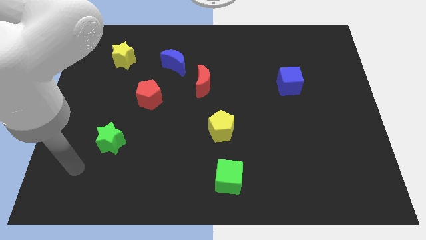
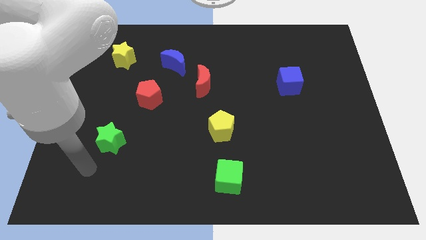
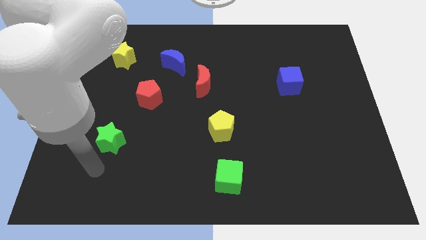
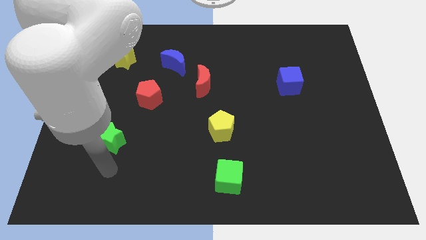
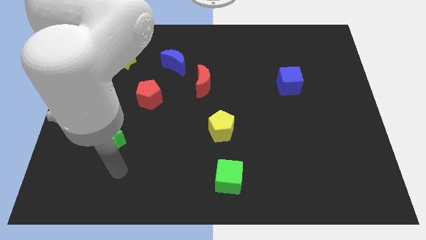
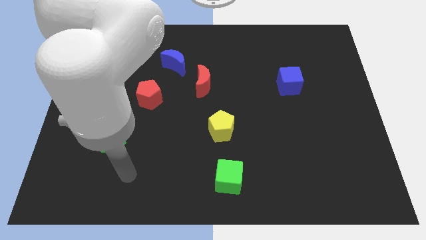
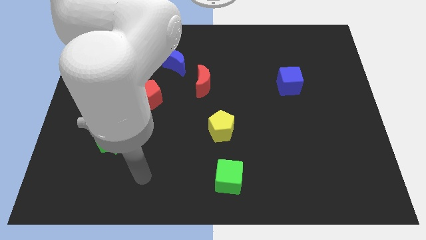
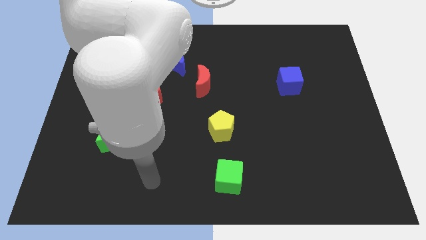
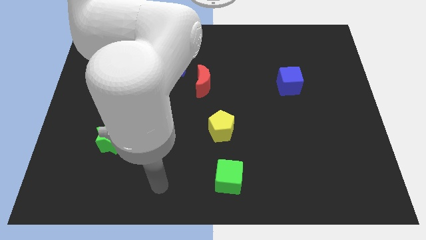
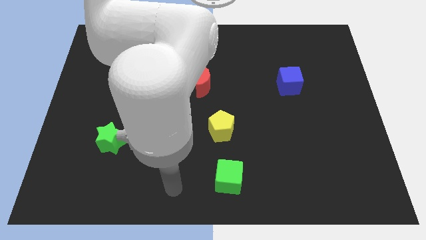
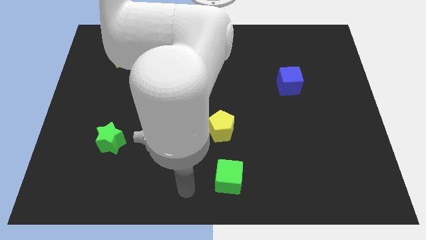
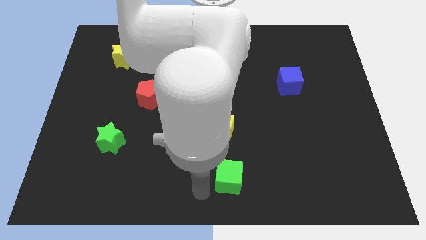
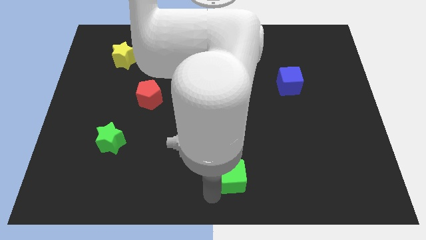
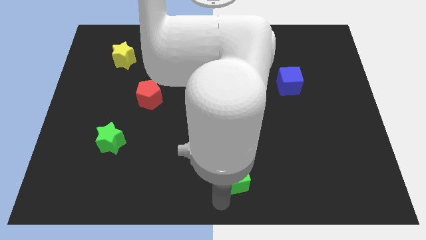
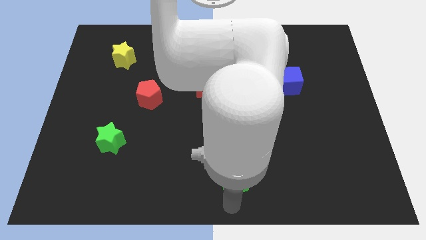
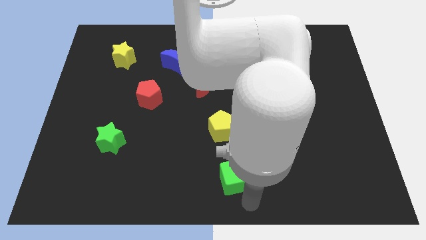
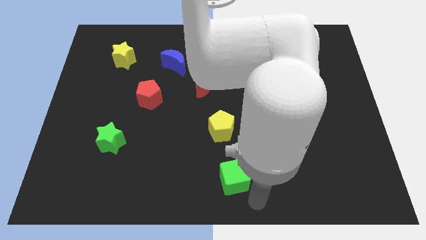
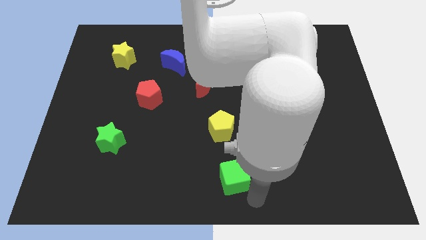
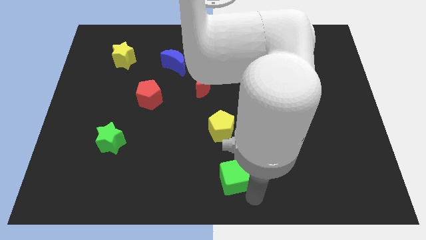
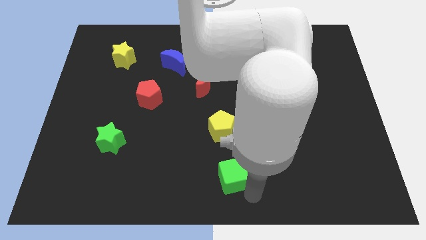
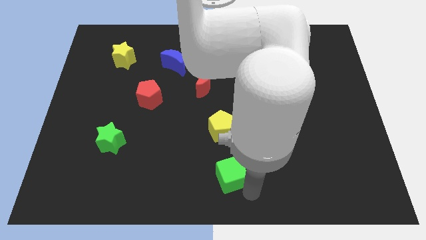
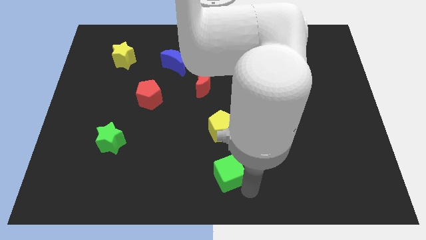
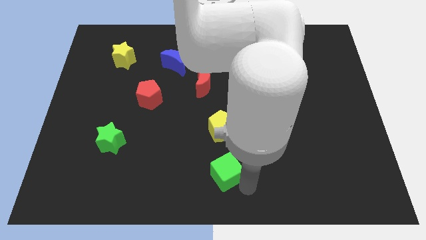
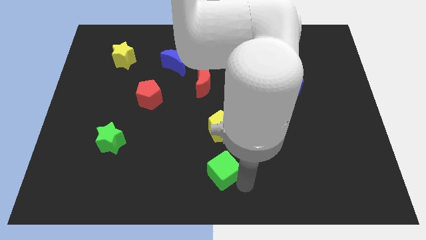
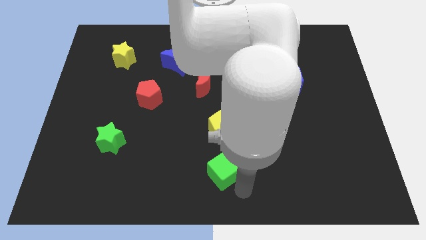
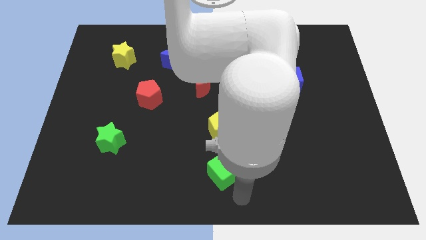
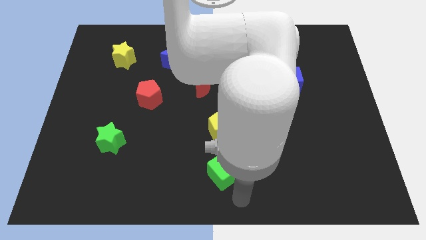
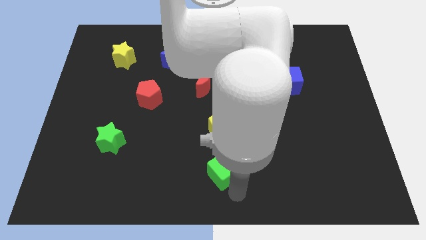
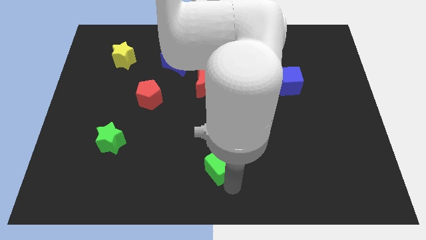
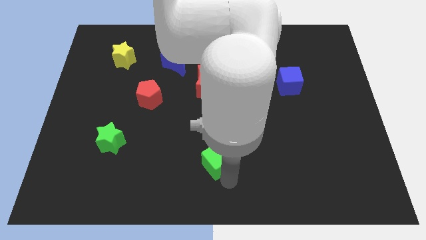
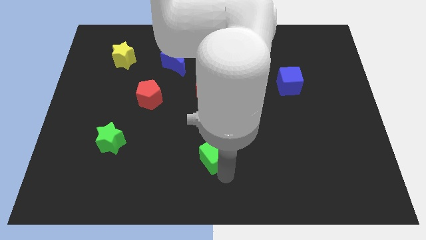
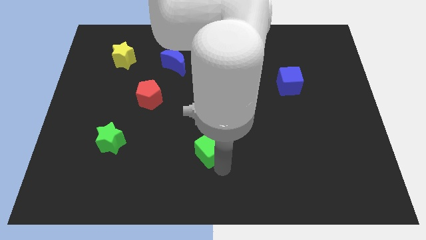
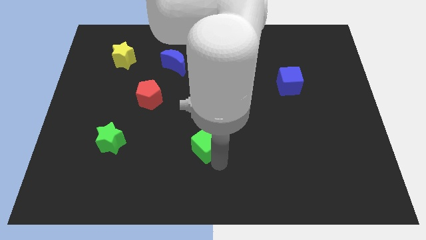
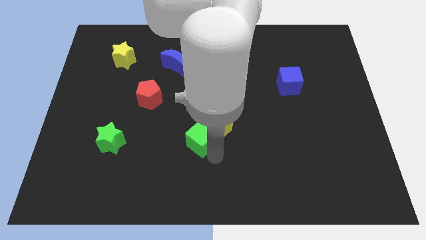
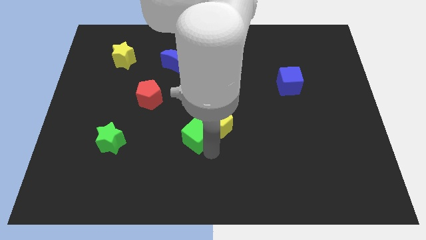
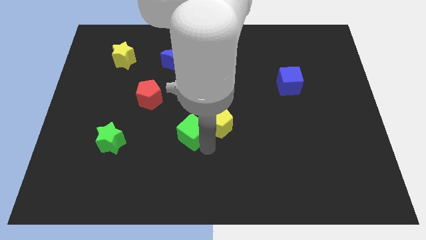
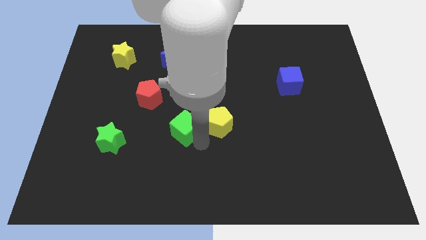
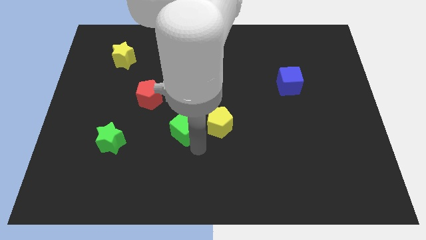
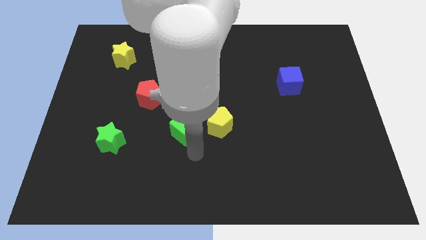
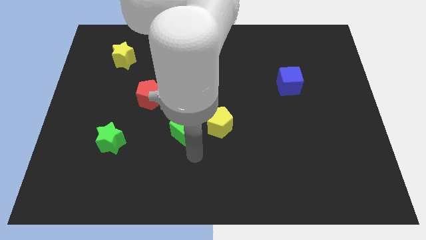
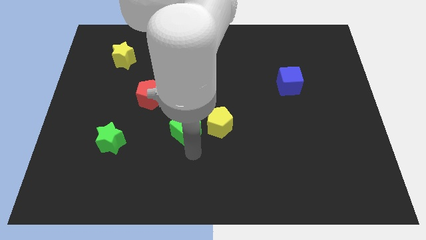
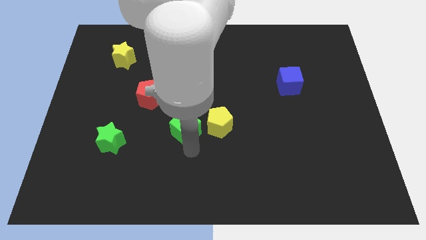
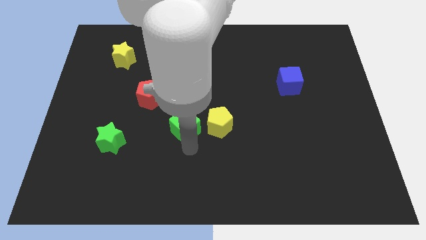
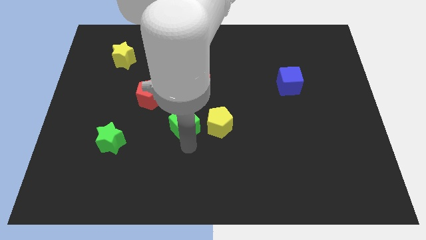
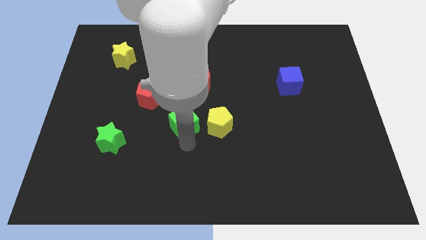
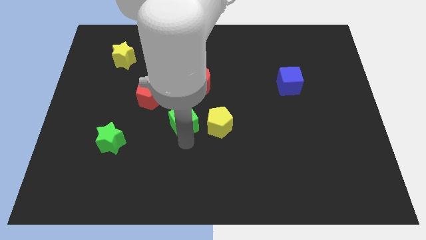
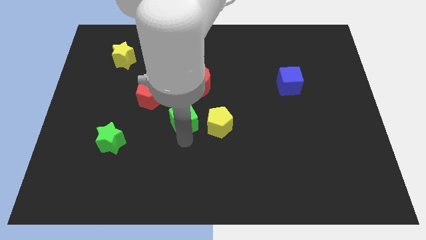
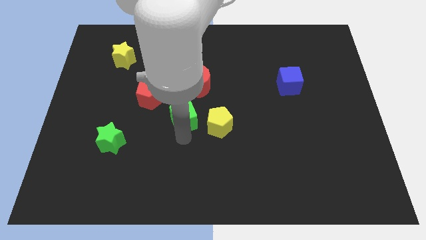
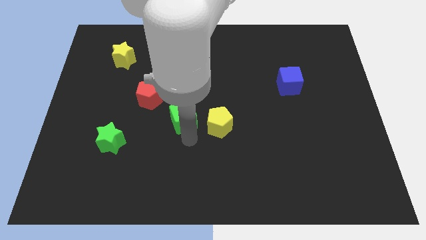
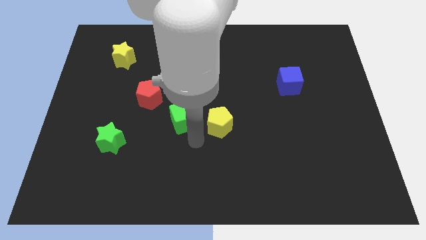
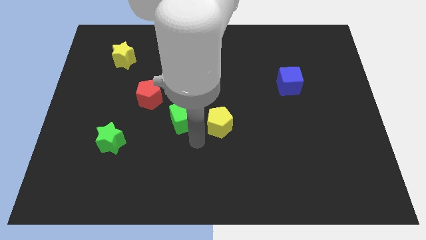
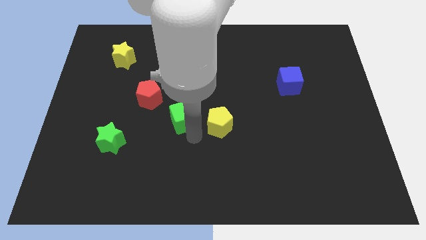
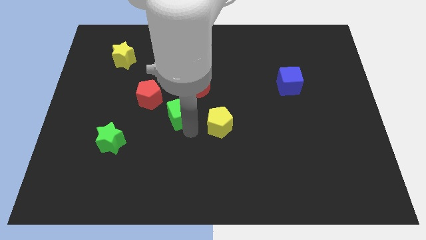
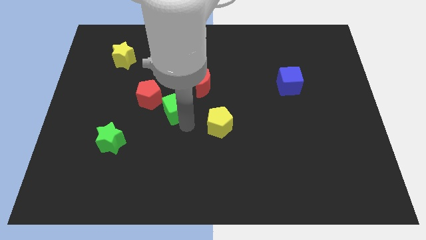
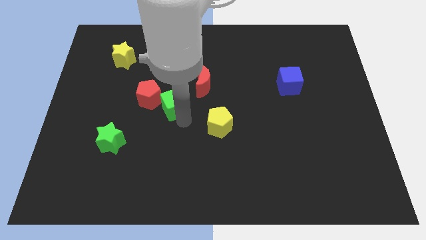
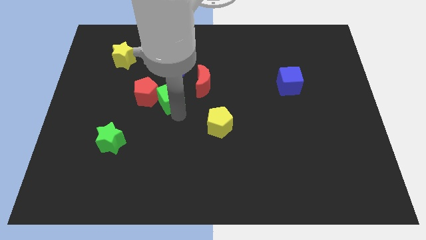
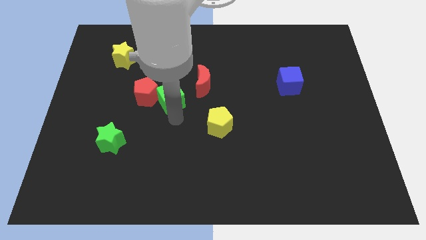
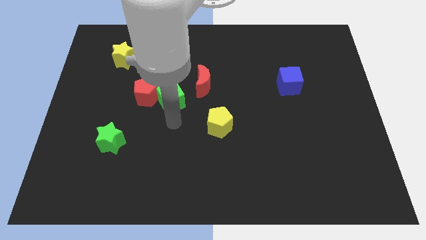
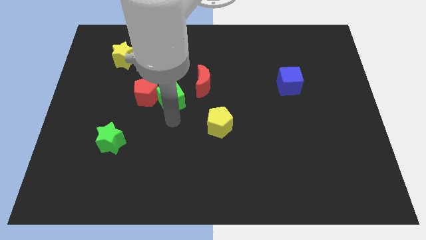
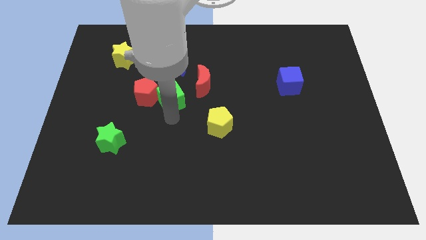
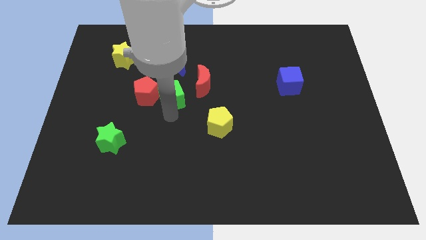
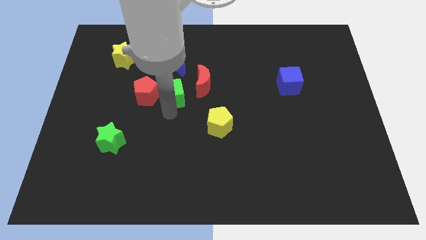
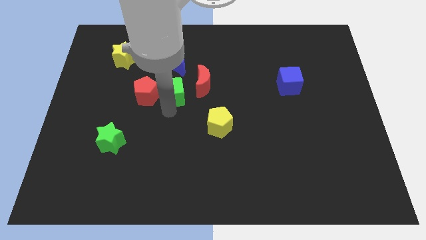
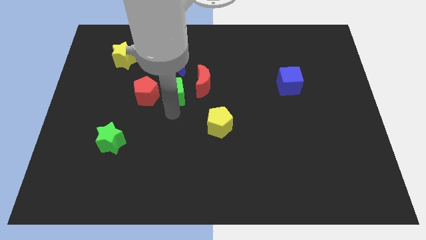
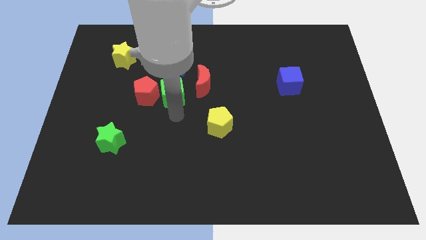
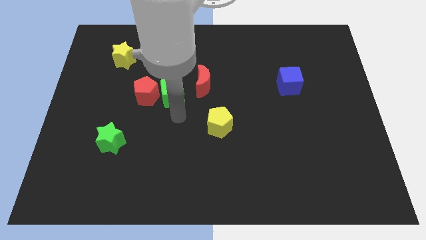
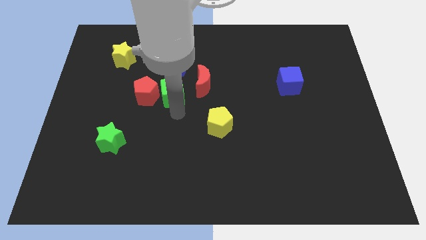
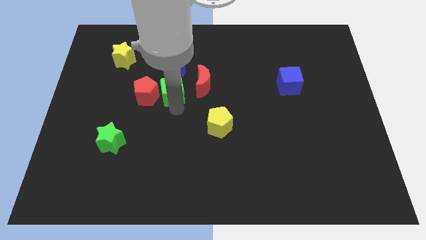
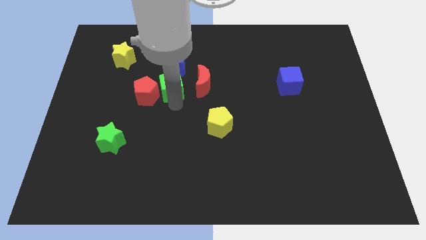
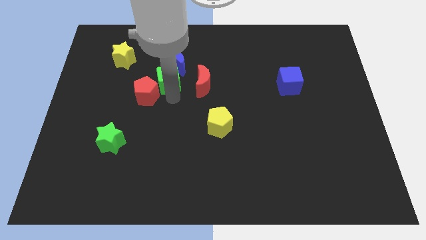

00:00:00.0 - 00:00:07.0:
move the green cube next to the blue moon
